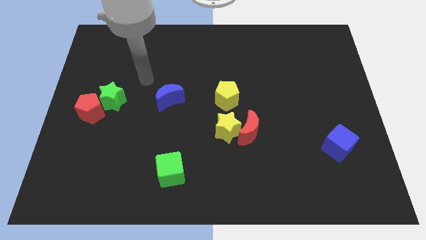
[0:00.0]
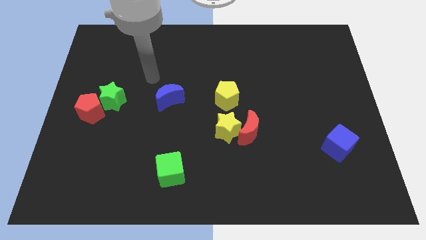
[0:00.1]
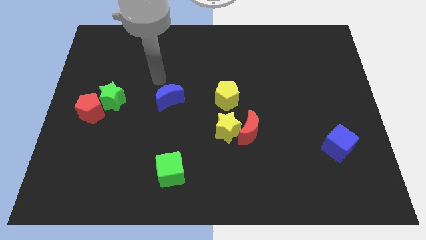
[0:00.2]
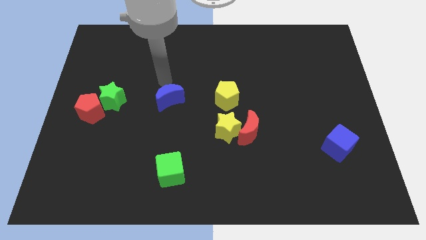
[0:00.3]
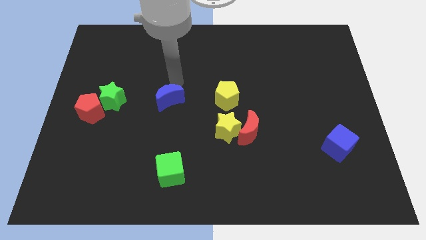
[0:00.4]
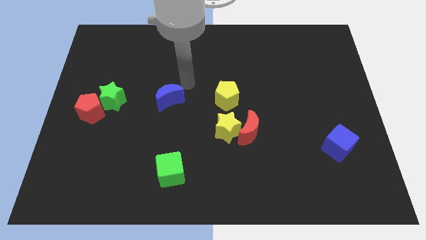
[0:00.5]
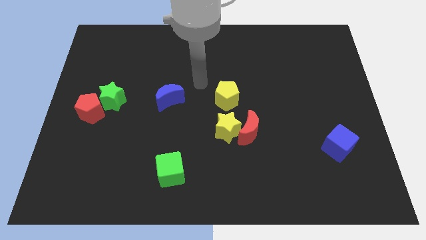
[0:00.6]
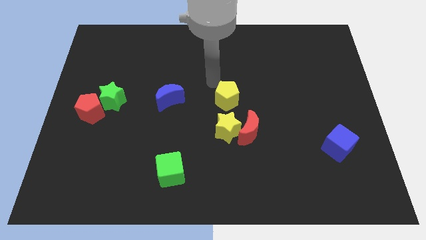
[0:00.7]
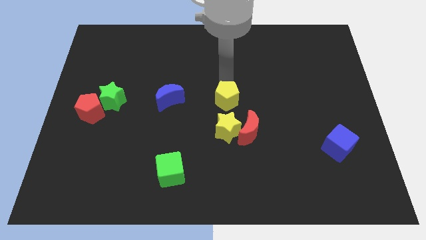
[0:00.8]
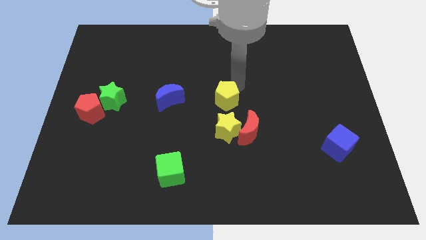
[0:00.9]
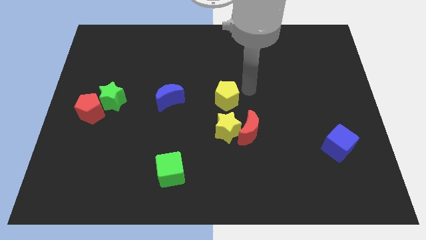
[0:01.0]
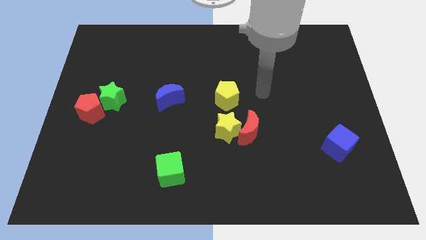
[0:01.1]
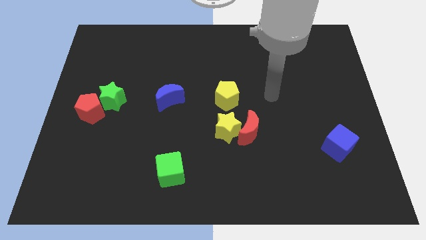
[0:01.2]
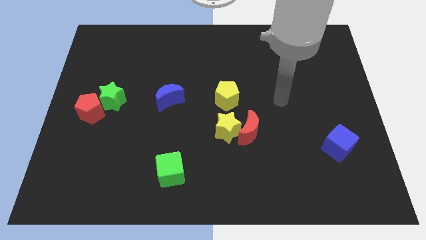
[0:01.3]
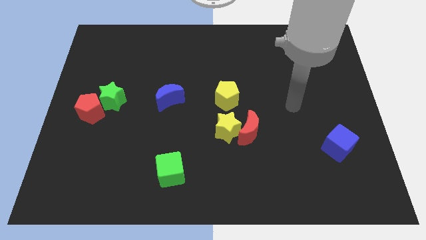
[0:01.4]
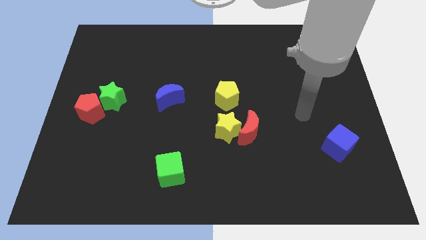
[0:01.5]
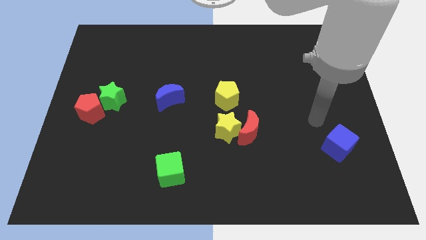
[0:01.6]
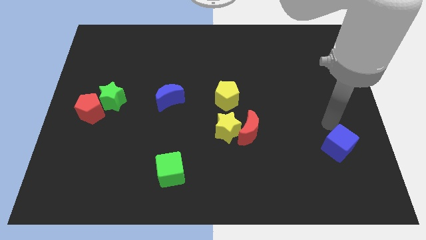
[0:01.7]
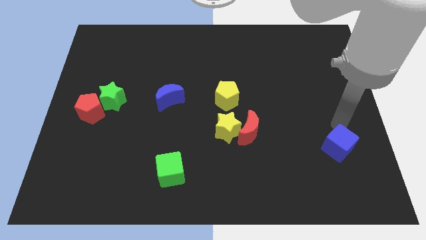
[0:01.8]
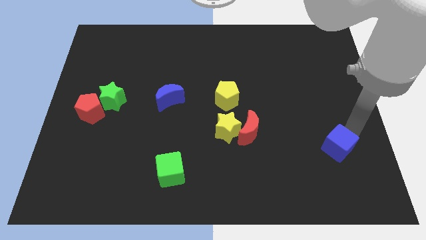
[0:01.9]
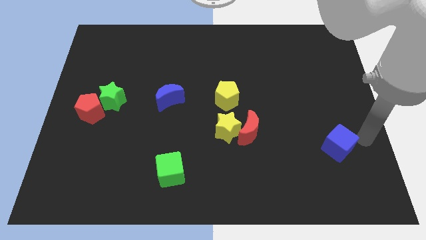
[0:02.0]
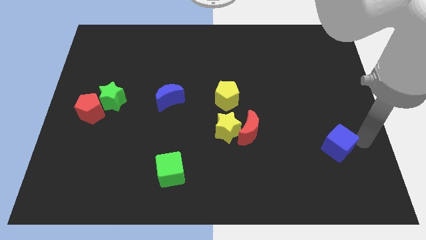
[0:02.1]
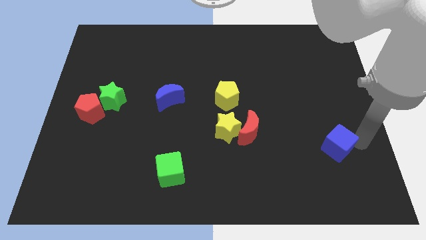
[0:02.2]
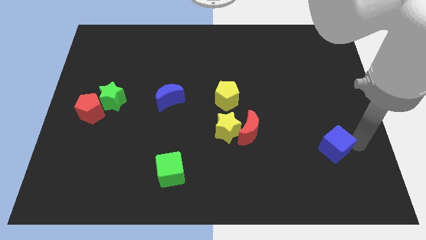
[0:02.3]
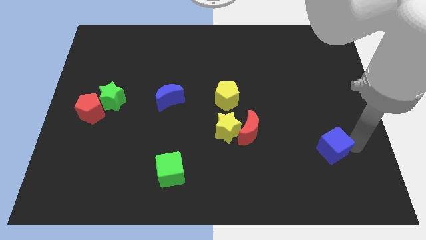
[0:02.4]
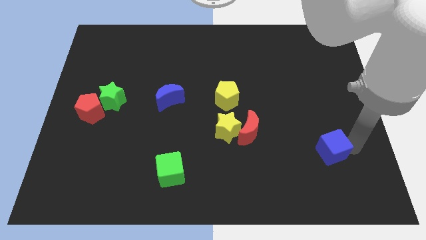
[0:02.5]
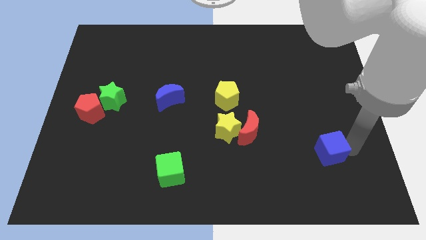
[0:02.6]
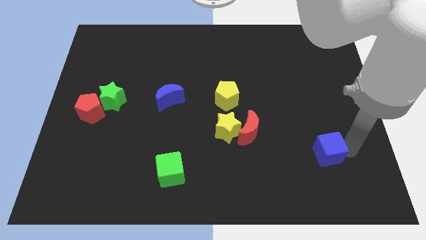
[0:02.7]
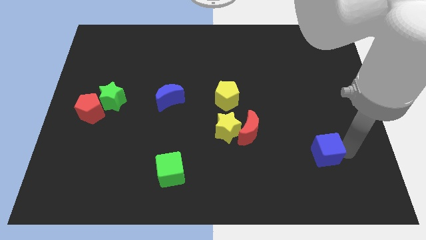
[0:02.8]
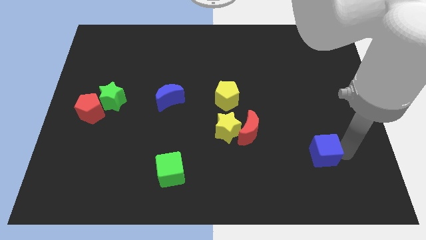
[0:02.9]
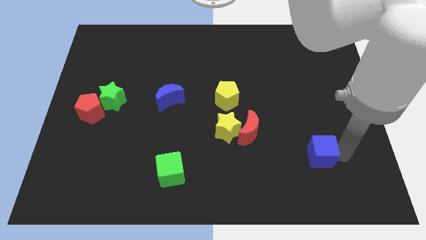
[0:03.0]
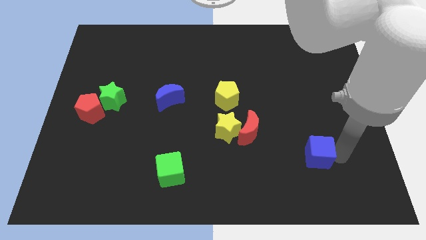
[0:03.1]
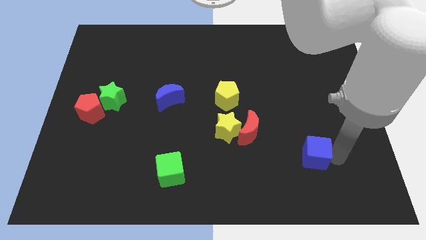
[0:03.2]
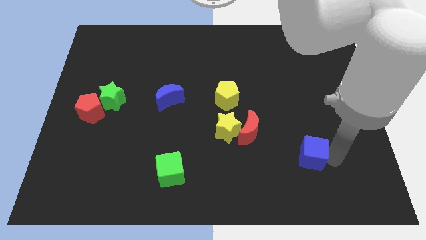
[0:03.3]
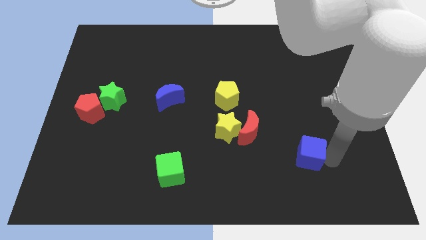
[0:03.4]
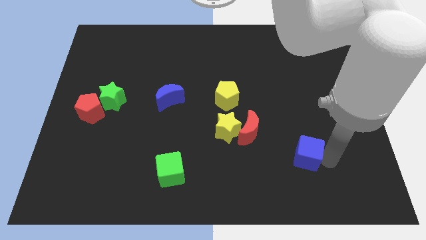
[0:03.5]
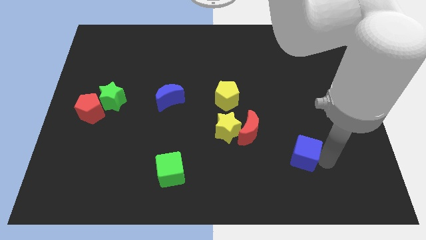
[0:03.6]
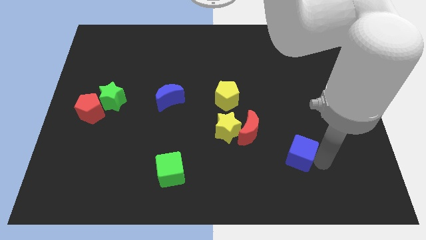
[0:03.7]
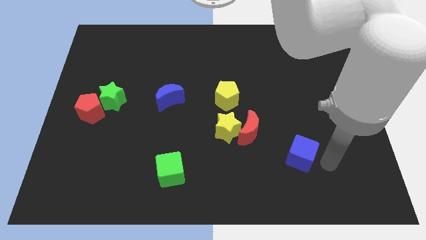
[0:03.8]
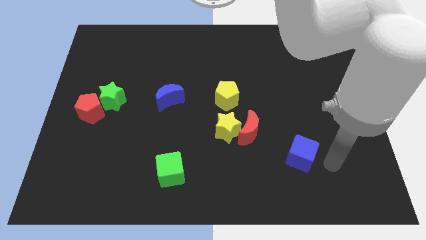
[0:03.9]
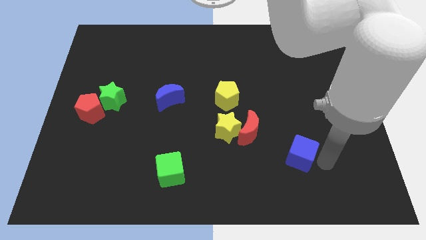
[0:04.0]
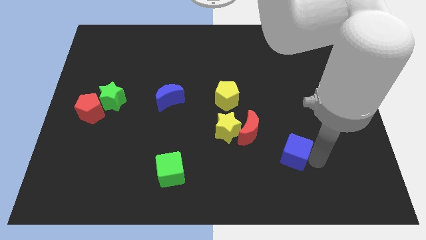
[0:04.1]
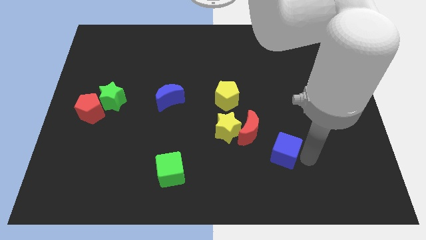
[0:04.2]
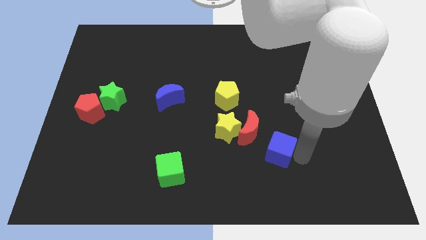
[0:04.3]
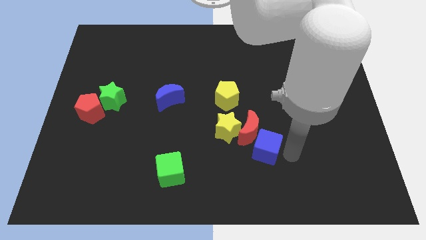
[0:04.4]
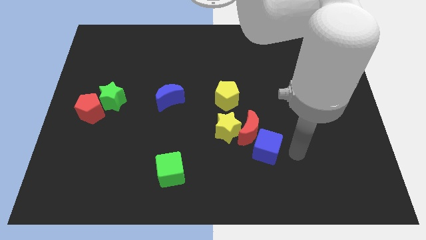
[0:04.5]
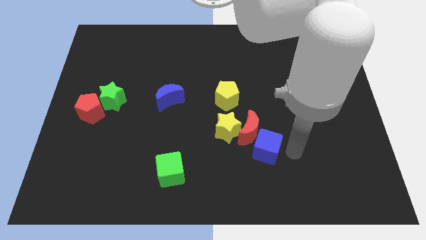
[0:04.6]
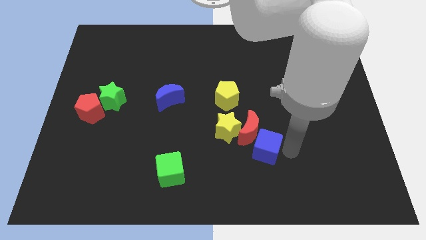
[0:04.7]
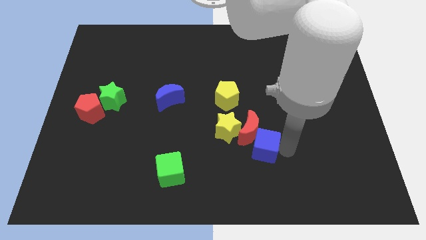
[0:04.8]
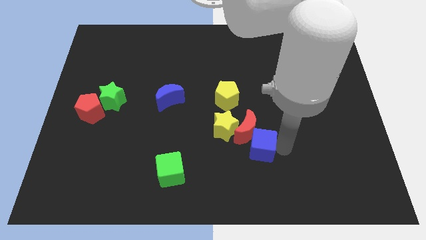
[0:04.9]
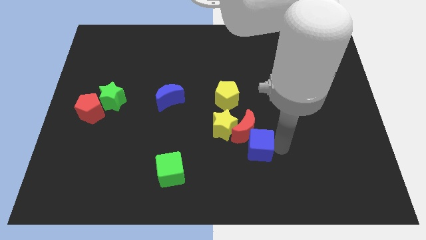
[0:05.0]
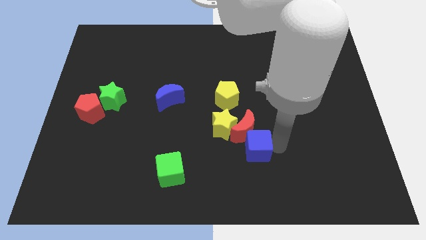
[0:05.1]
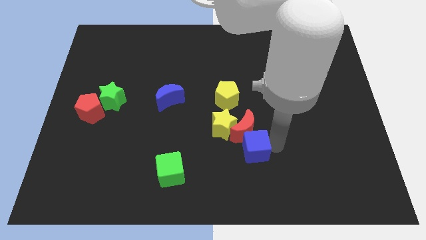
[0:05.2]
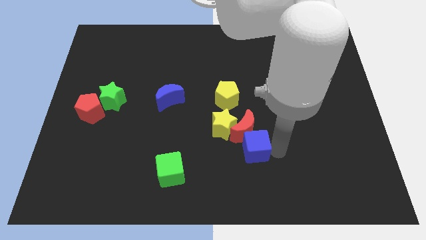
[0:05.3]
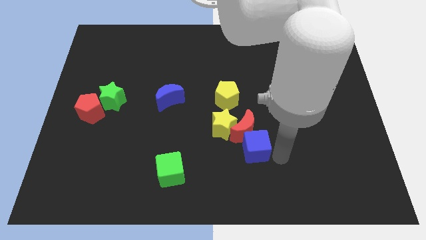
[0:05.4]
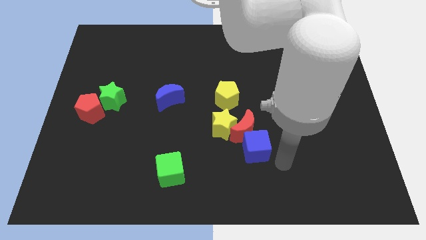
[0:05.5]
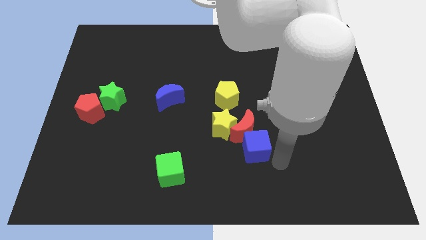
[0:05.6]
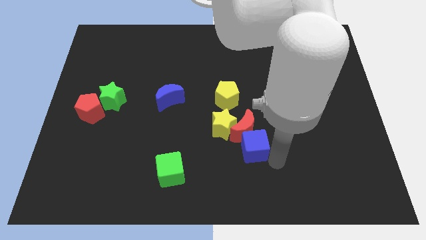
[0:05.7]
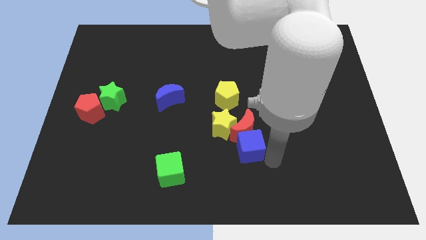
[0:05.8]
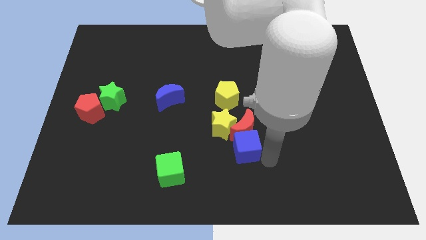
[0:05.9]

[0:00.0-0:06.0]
put the blue cube to the bottom of the yellow pentagon

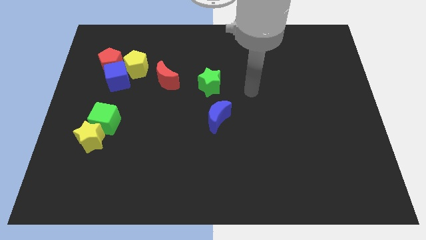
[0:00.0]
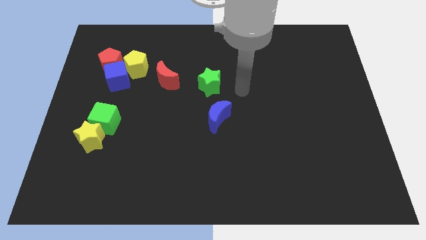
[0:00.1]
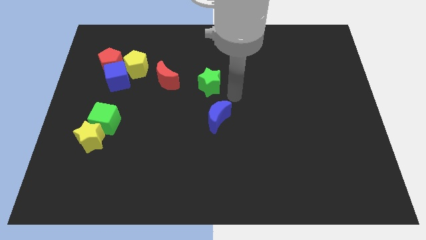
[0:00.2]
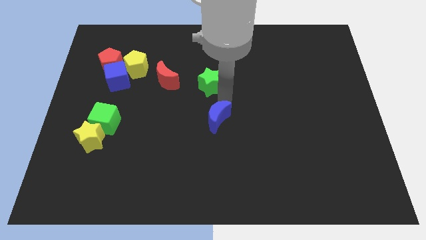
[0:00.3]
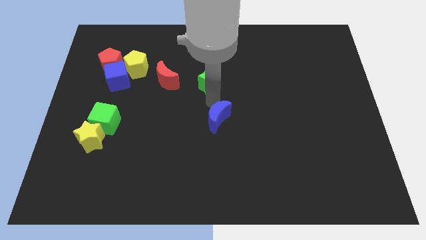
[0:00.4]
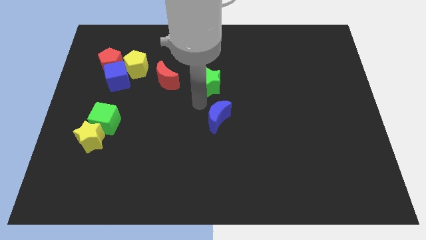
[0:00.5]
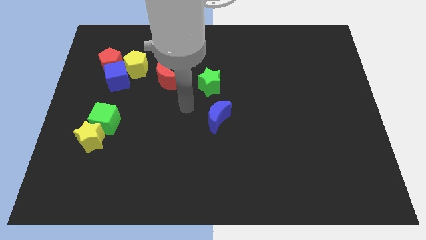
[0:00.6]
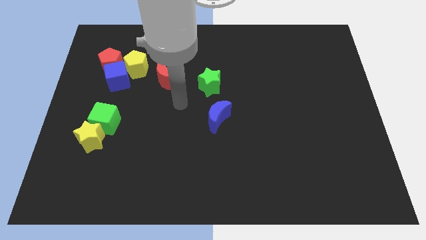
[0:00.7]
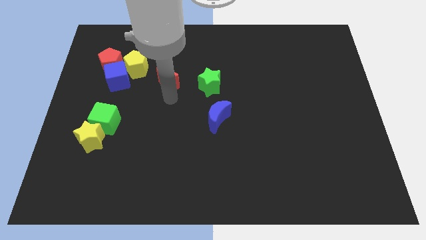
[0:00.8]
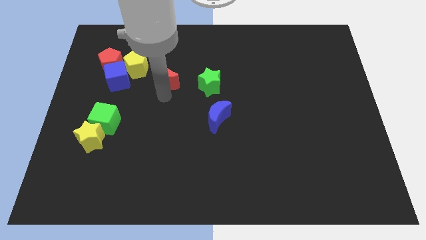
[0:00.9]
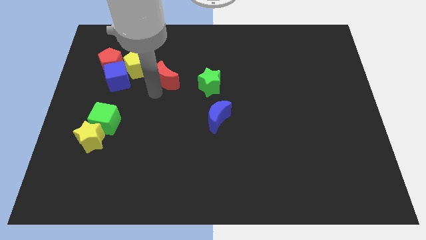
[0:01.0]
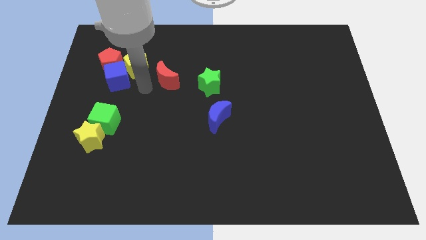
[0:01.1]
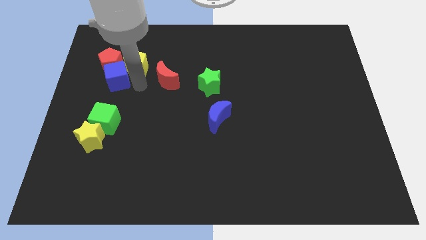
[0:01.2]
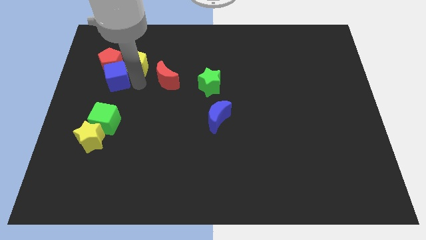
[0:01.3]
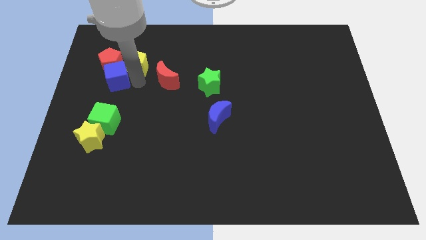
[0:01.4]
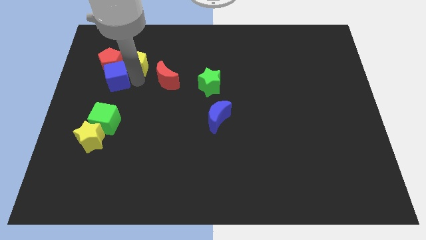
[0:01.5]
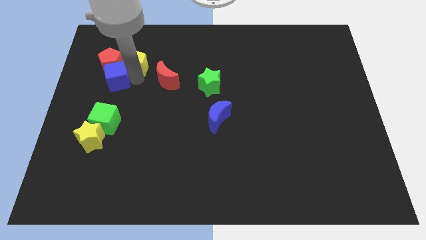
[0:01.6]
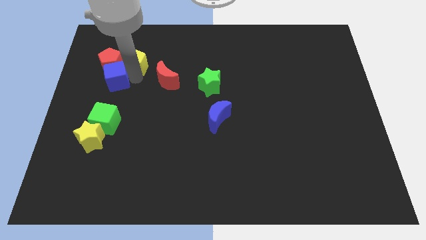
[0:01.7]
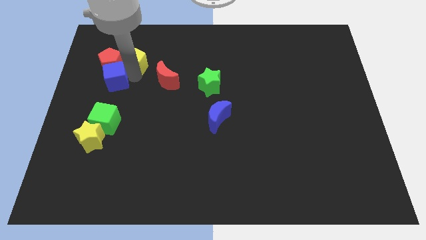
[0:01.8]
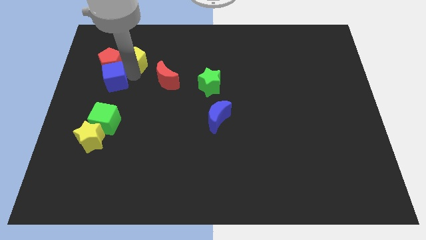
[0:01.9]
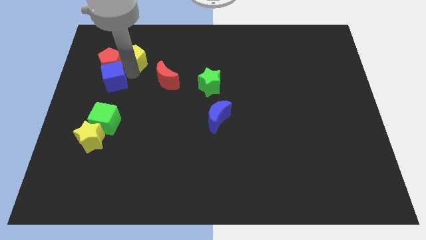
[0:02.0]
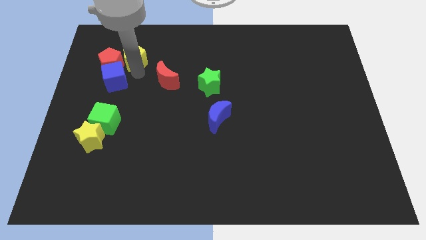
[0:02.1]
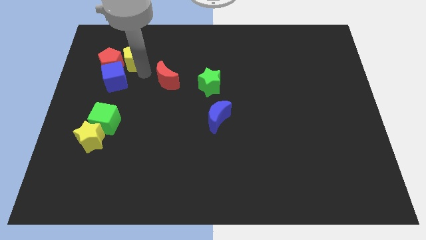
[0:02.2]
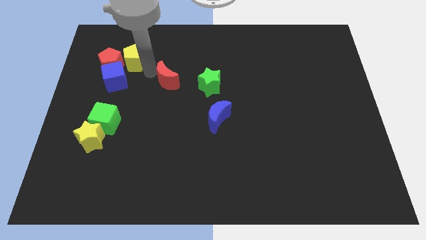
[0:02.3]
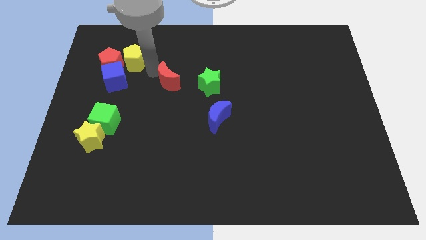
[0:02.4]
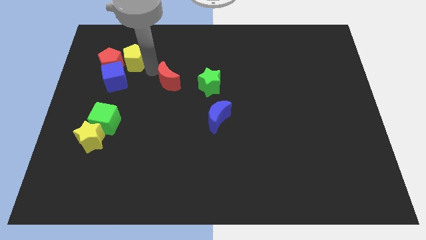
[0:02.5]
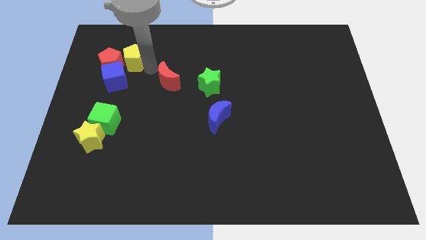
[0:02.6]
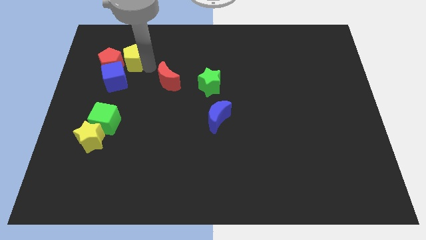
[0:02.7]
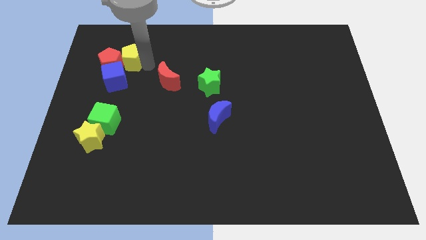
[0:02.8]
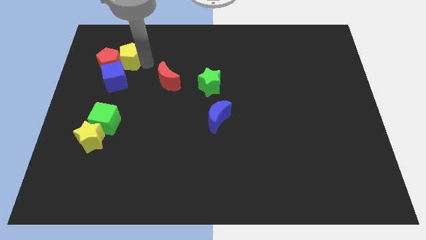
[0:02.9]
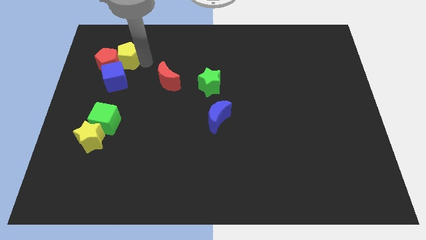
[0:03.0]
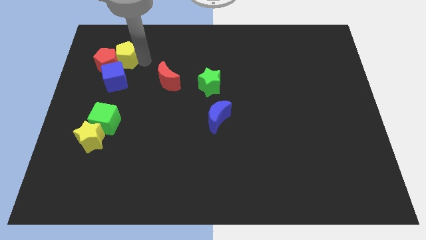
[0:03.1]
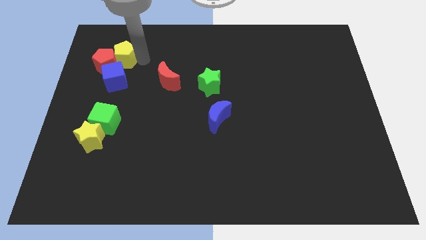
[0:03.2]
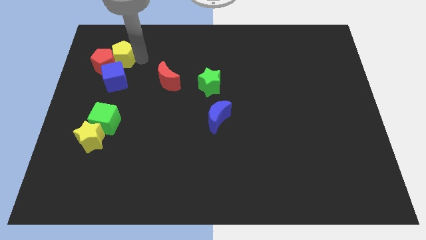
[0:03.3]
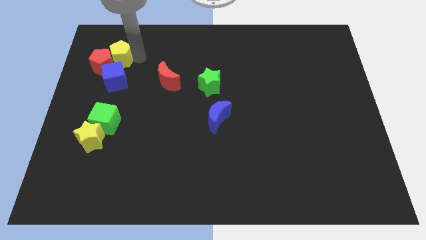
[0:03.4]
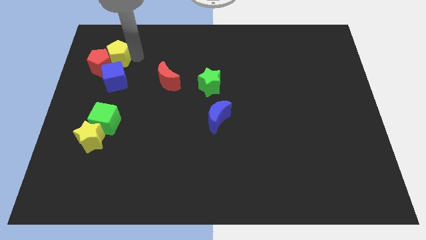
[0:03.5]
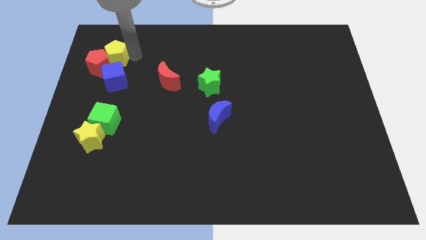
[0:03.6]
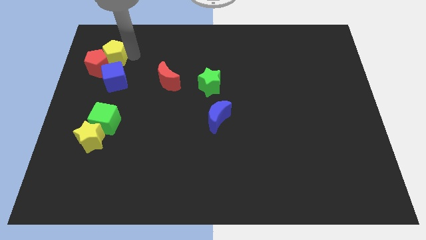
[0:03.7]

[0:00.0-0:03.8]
slide the yellow pentagon to the top left of the blue cube
